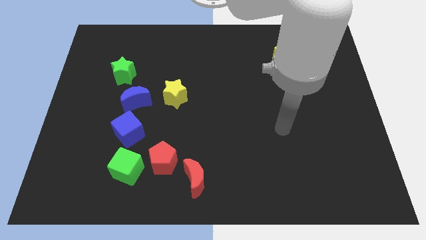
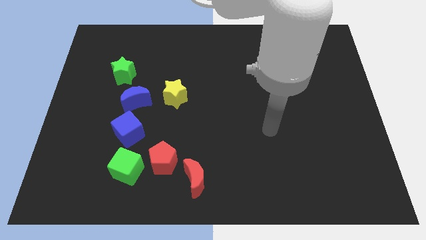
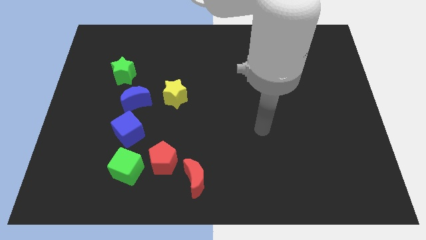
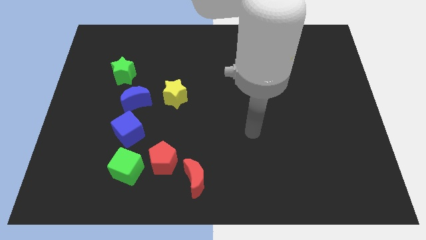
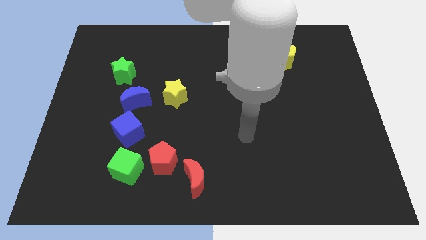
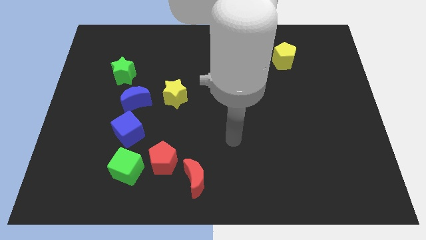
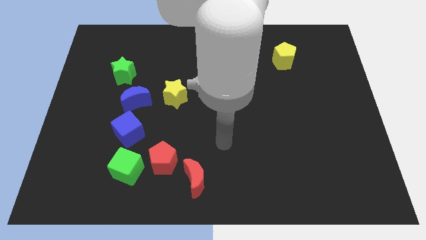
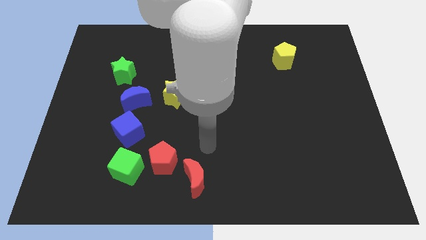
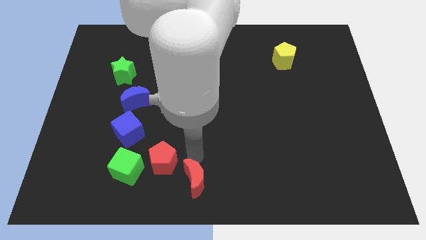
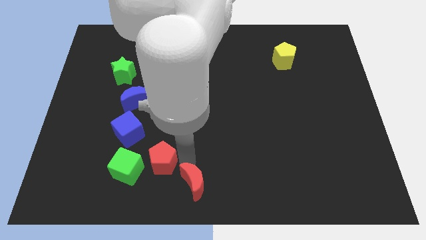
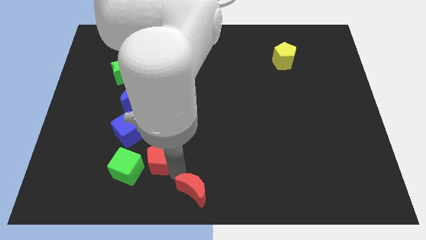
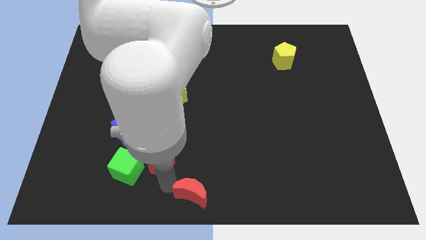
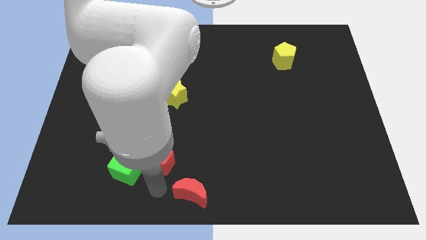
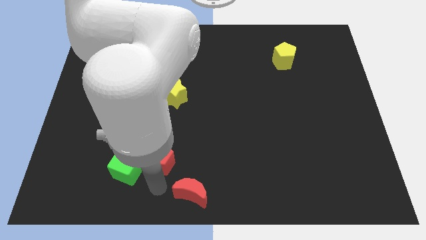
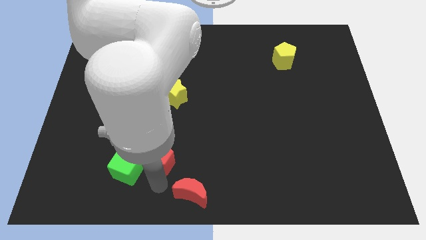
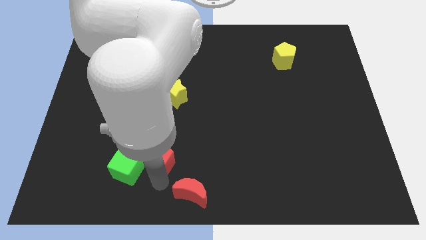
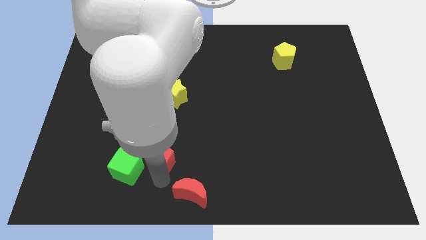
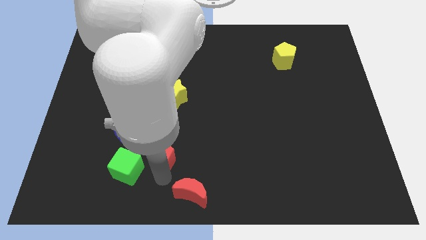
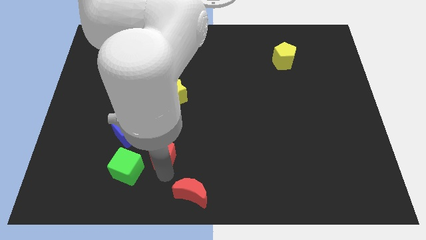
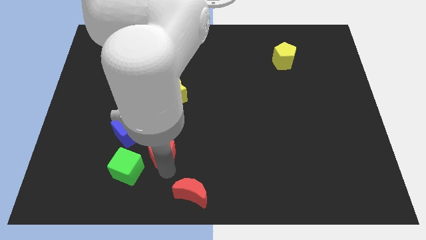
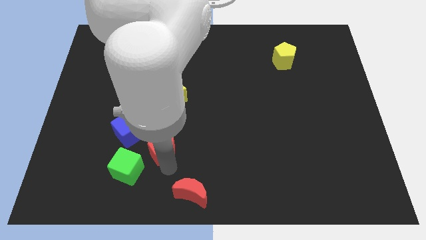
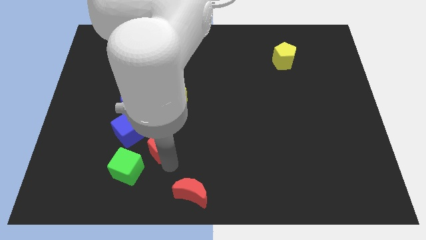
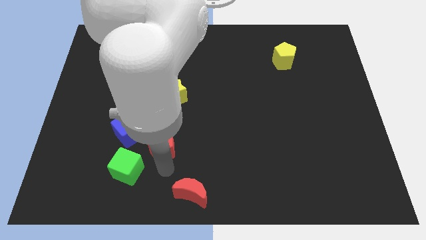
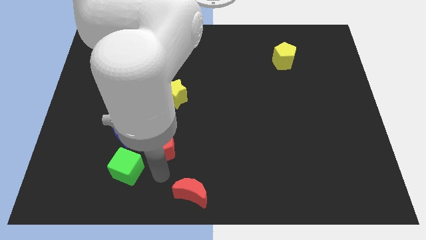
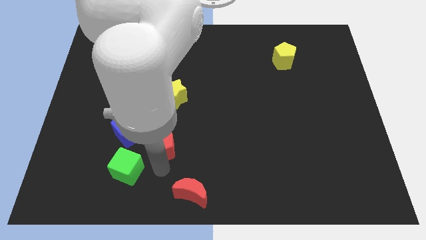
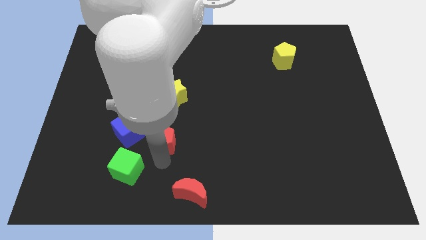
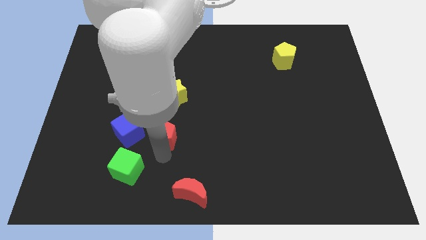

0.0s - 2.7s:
separate the red pentagon from the green cube and red moon

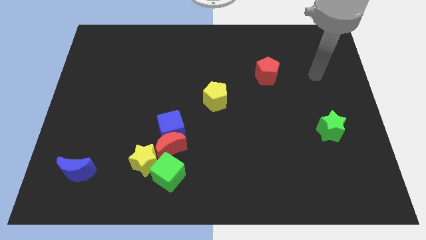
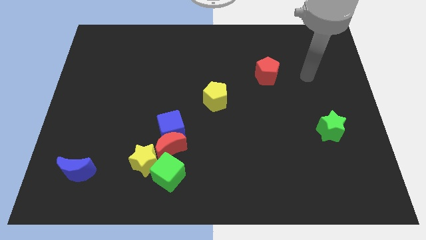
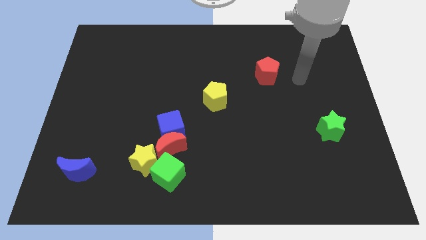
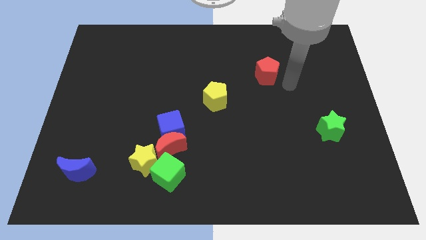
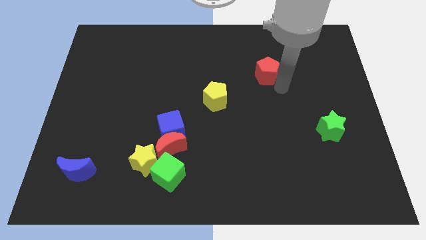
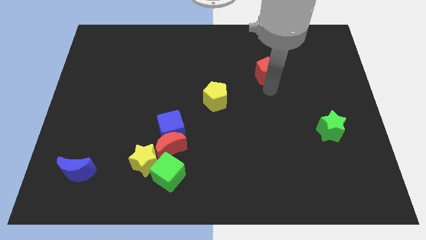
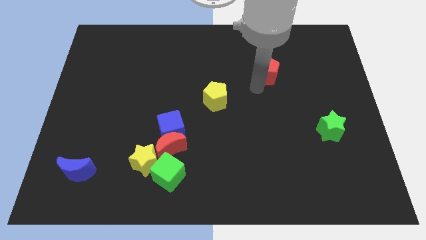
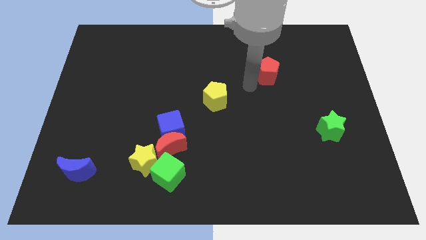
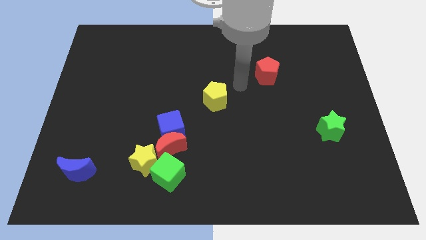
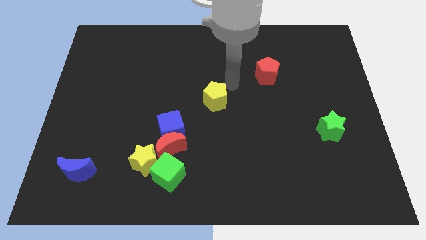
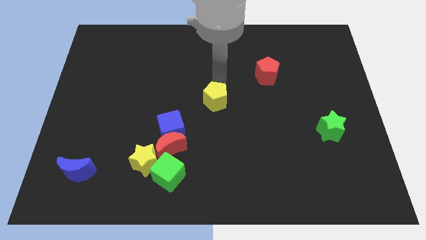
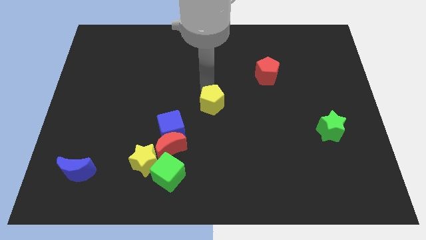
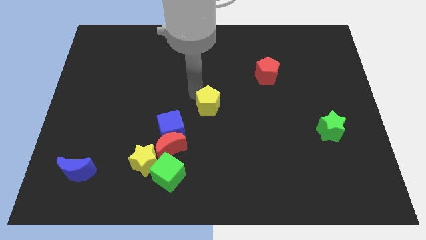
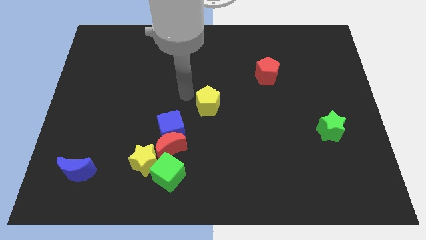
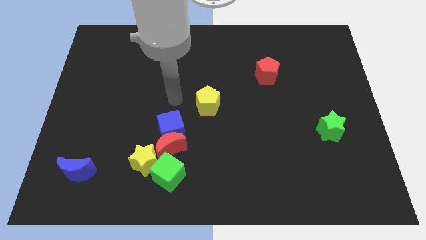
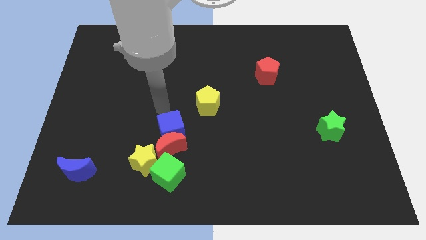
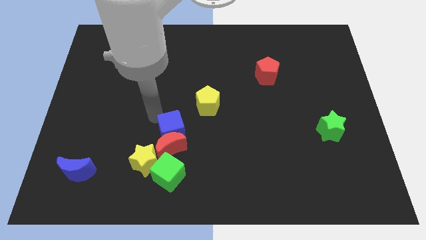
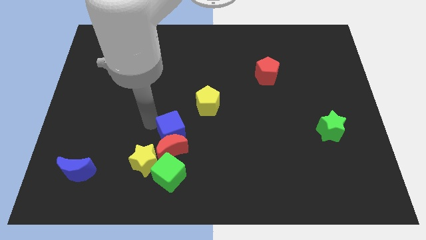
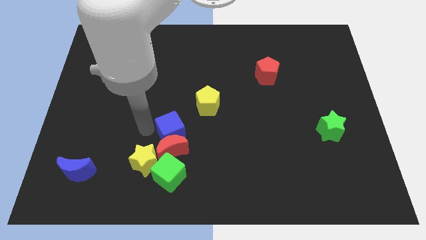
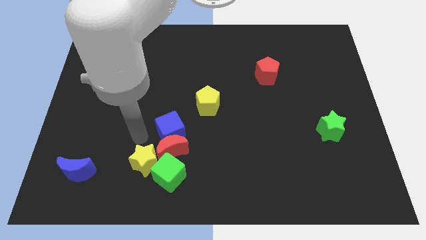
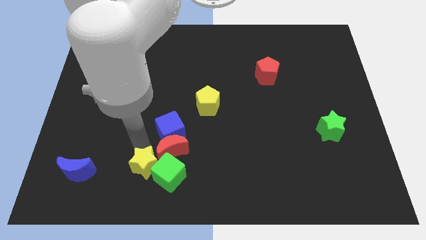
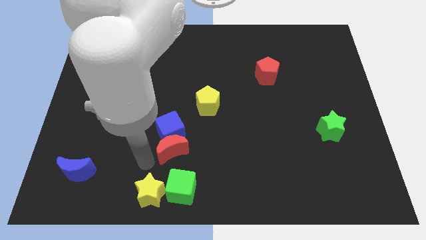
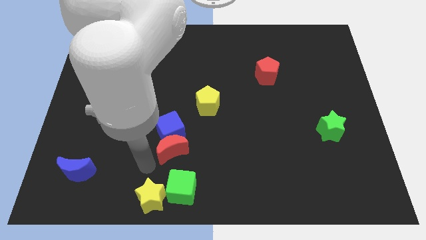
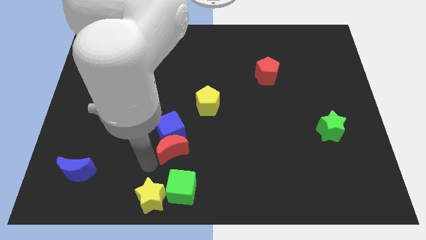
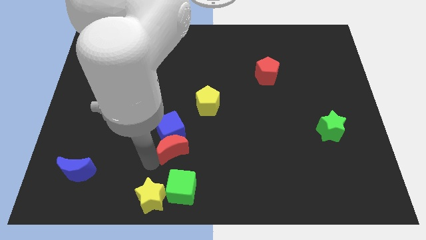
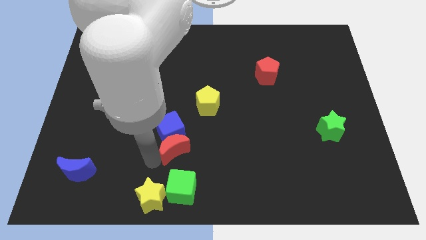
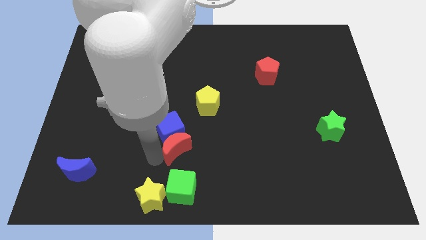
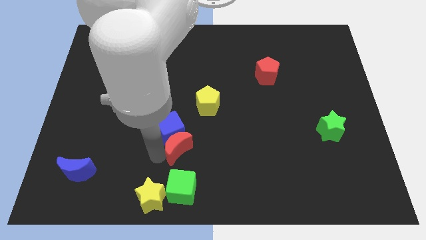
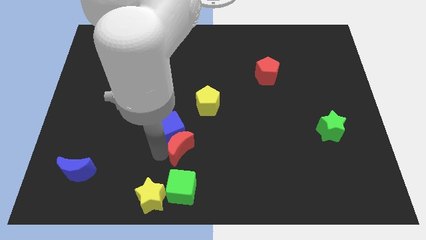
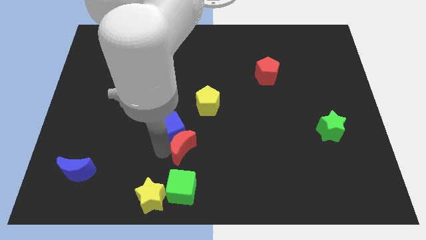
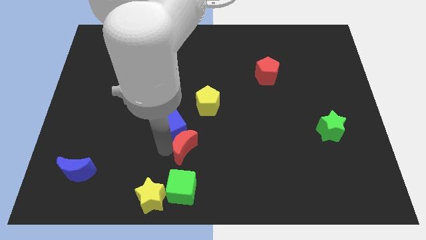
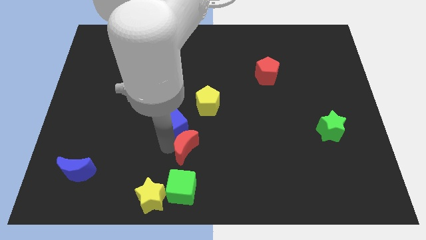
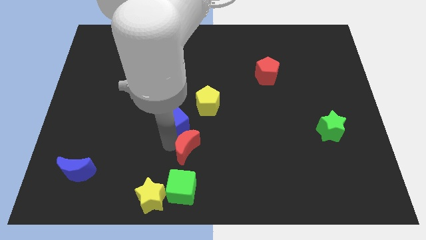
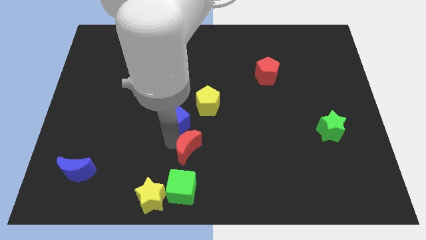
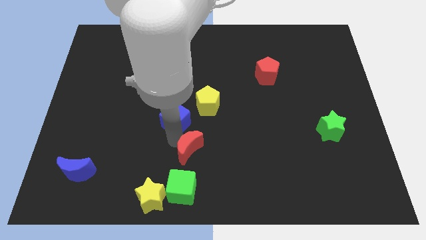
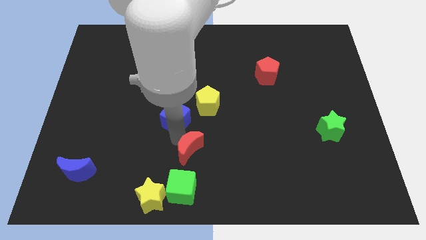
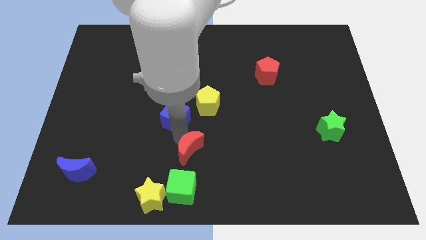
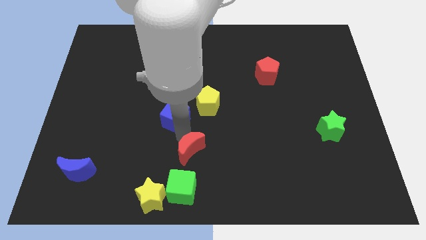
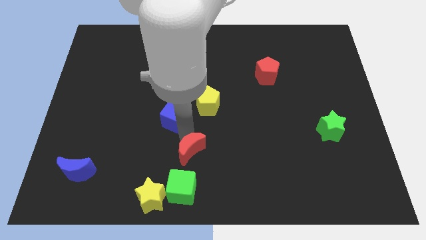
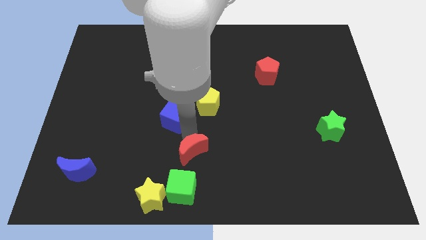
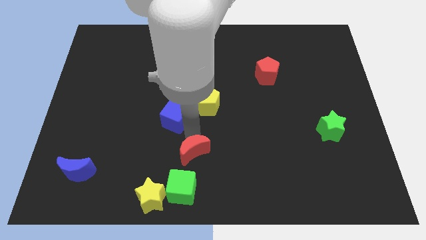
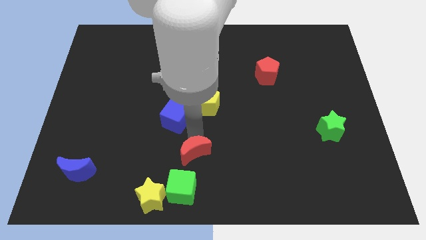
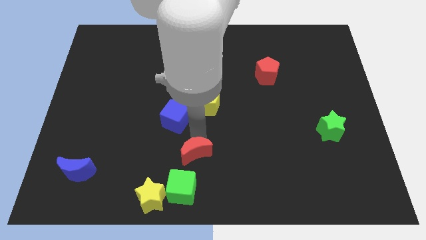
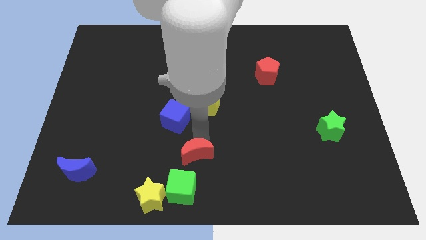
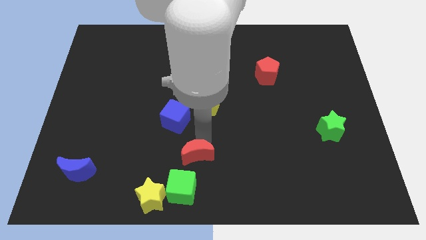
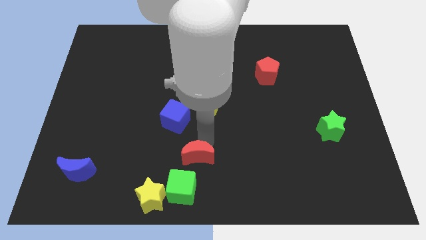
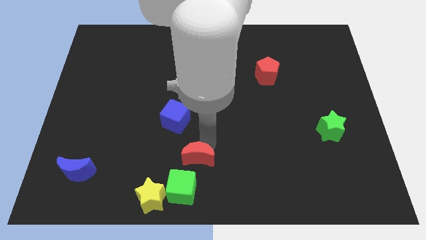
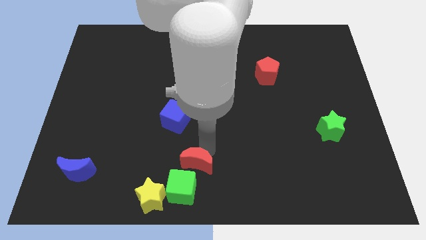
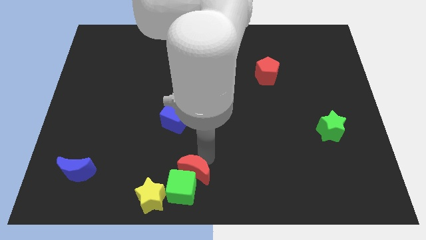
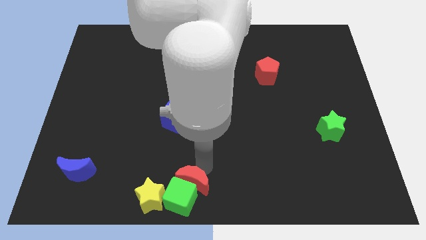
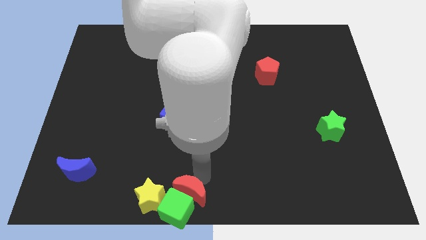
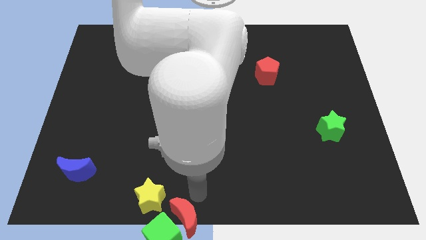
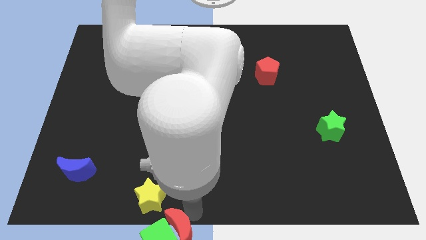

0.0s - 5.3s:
move the red moon away from the blue cube, yellow star, and green cube

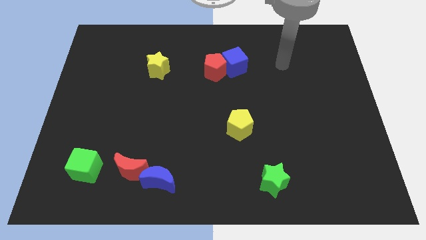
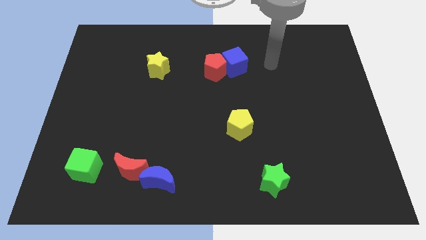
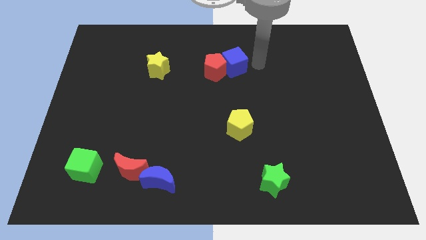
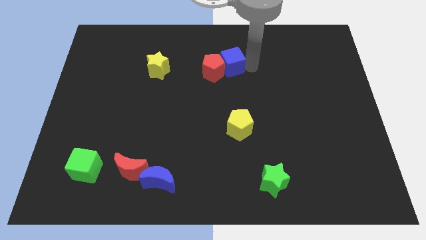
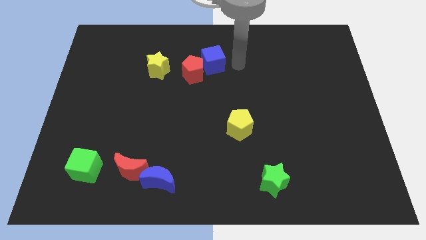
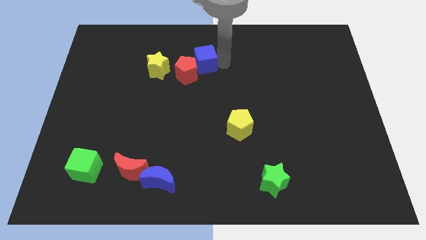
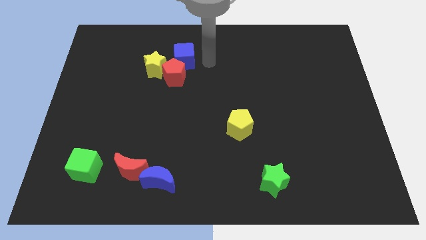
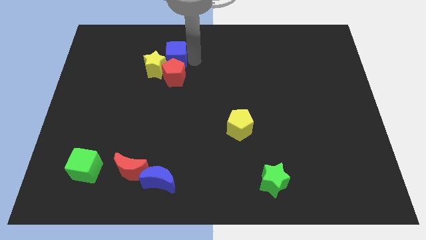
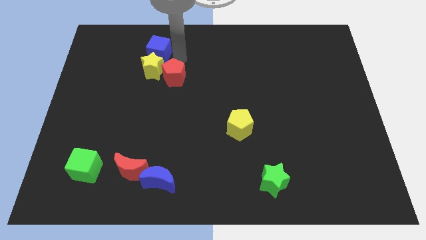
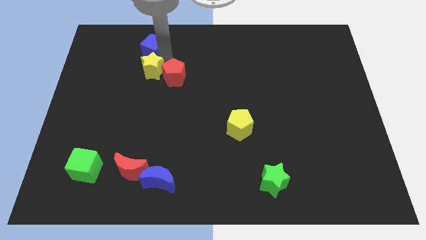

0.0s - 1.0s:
pull the red pentagon apart from the blue cube

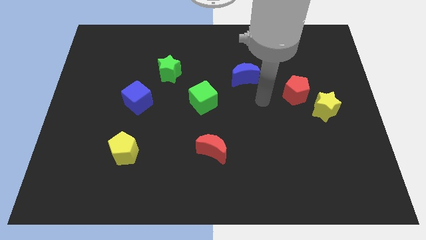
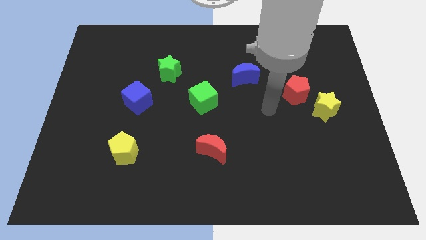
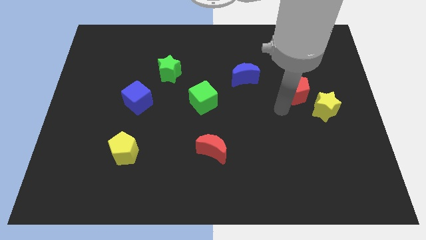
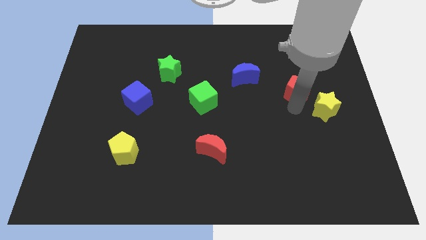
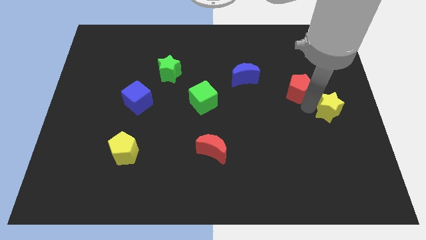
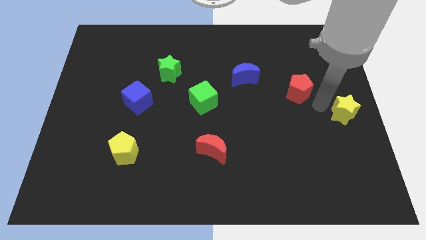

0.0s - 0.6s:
move the red pentagon away from the yellow star
